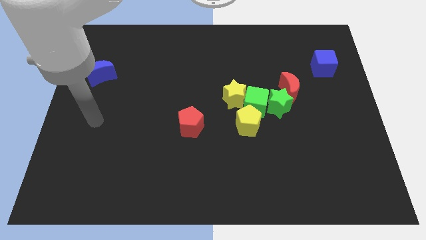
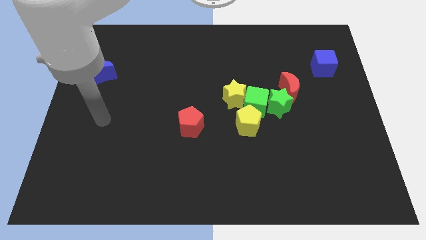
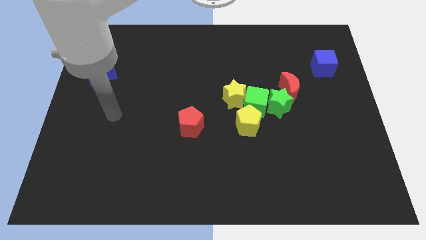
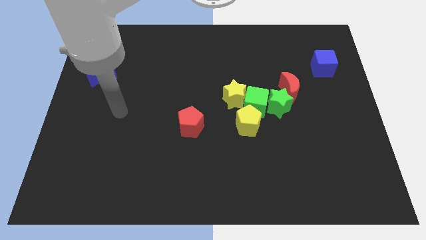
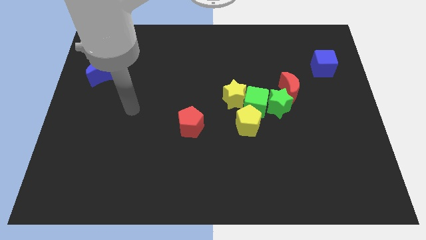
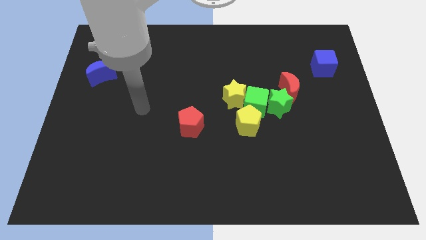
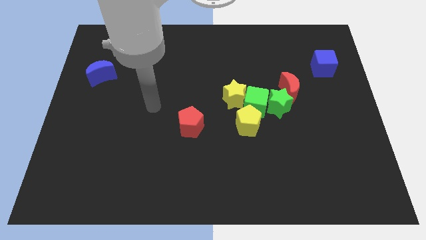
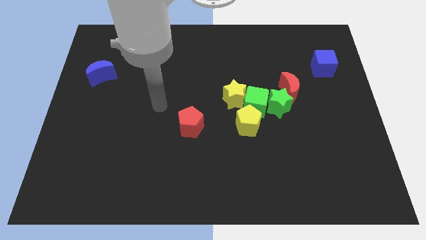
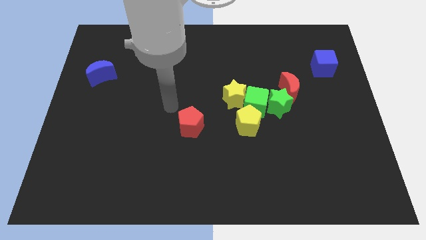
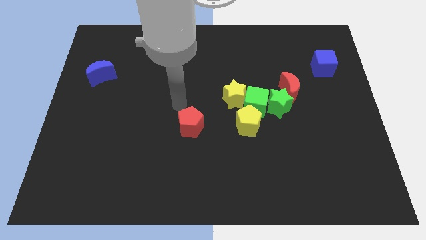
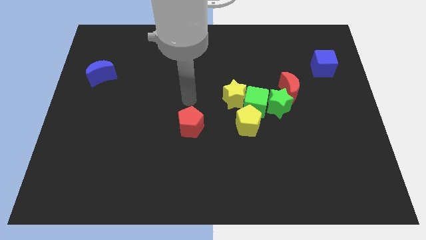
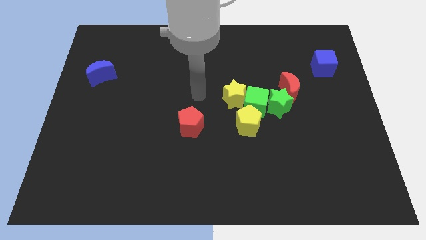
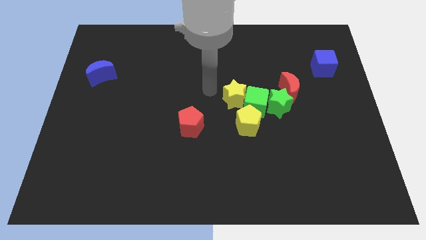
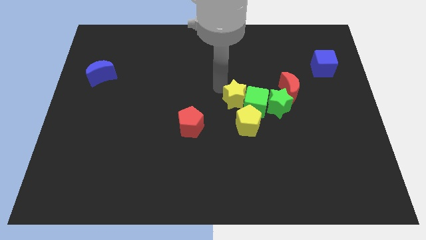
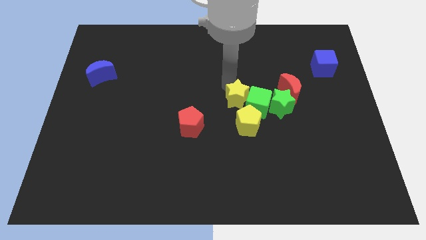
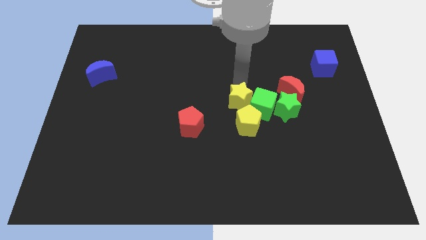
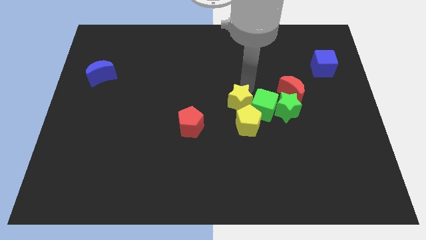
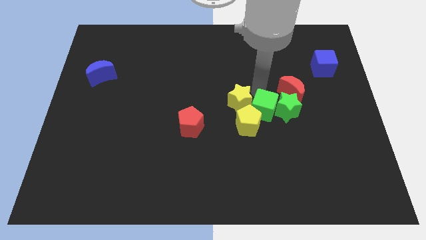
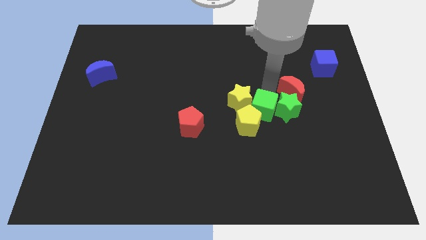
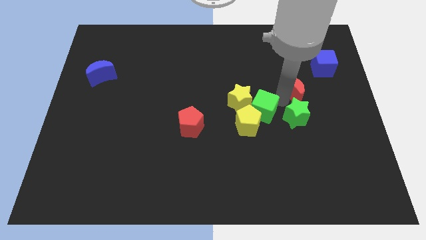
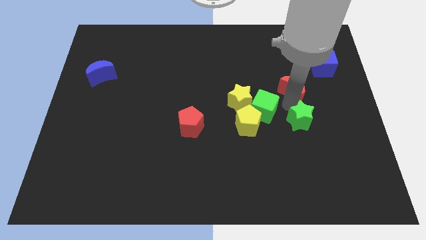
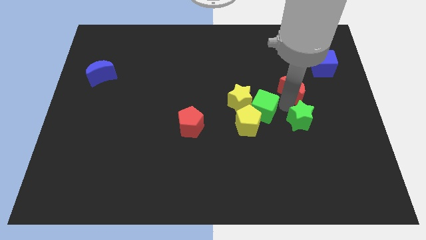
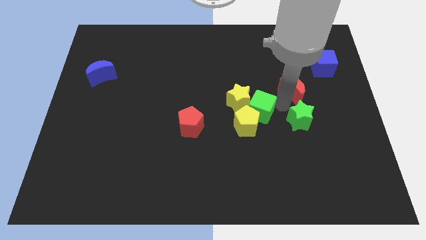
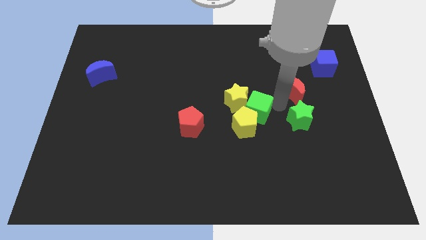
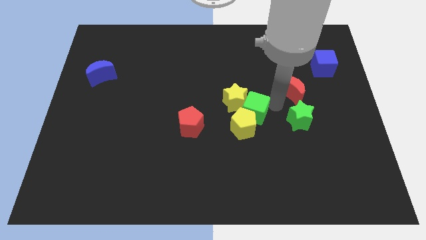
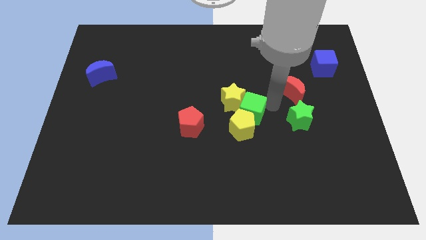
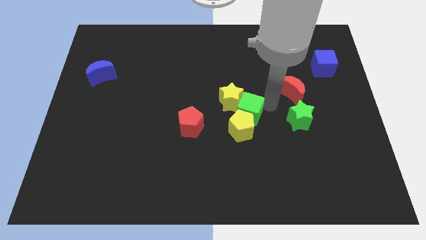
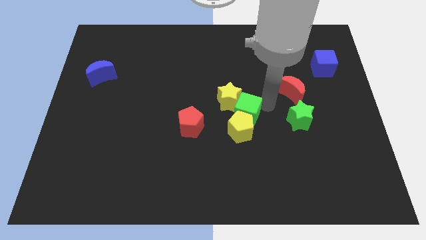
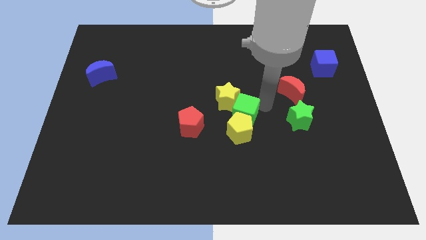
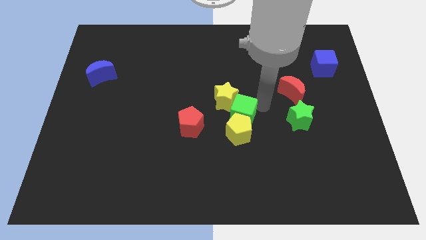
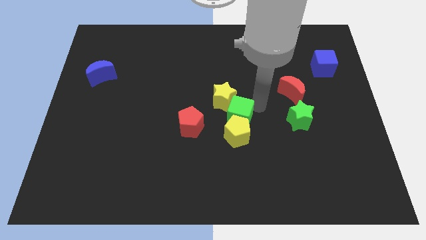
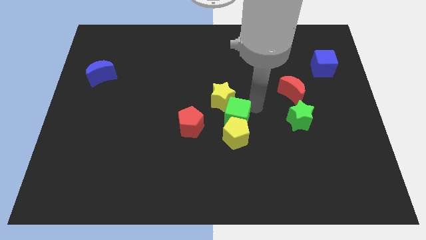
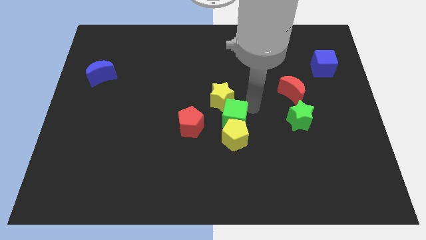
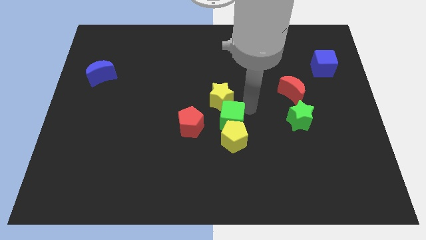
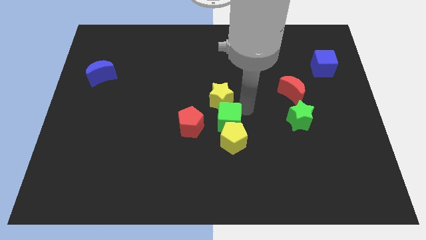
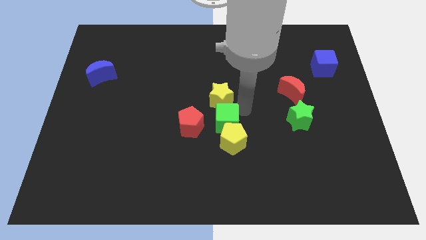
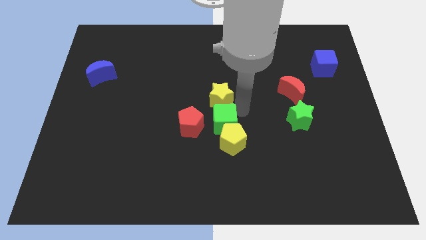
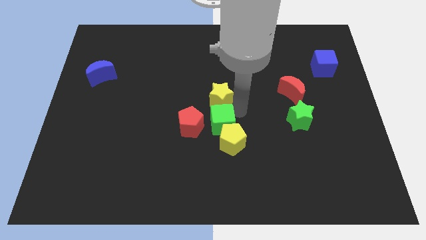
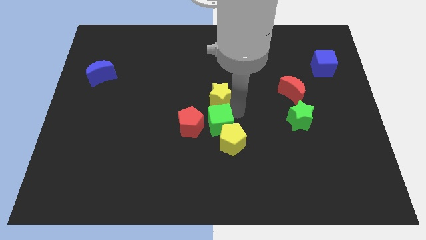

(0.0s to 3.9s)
move the green cube away from the group of blocks

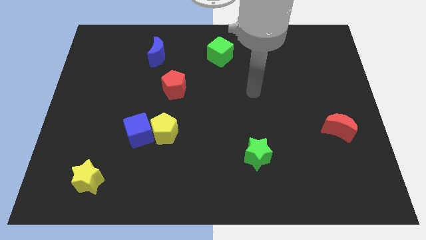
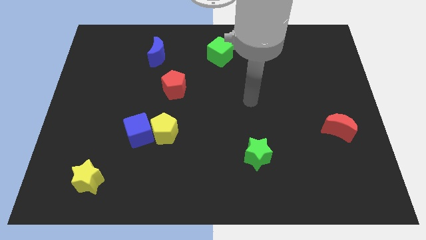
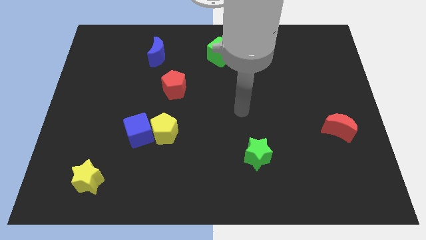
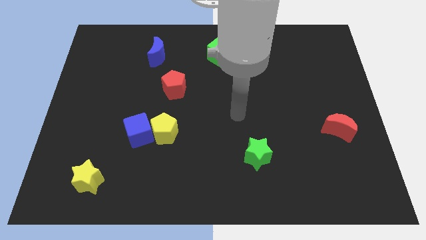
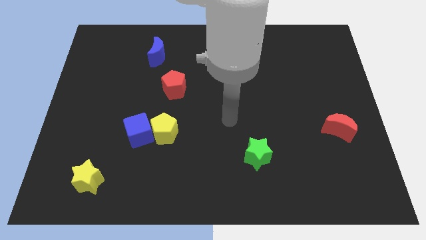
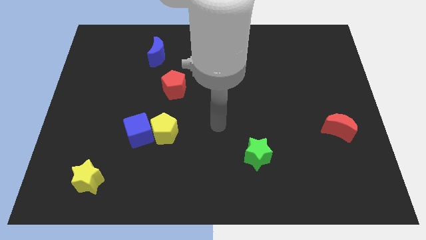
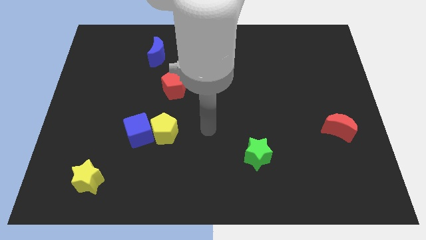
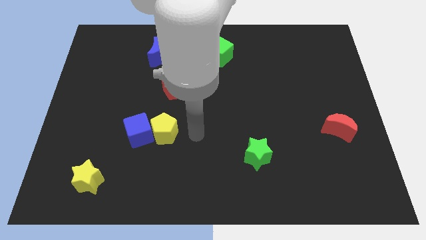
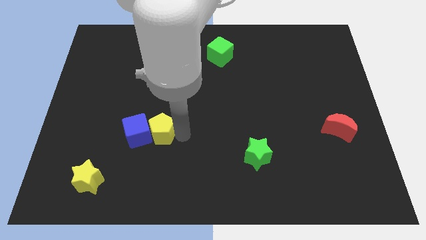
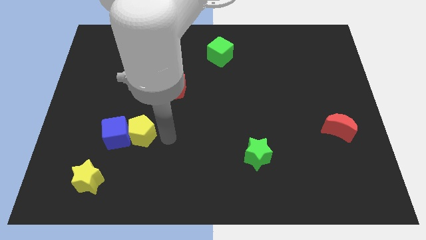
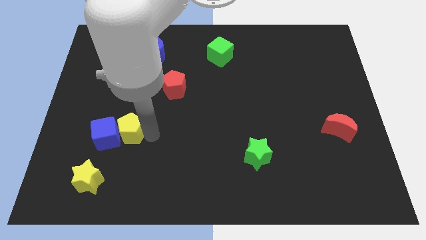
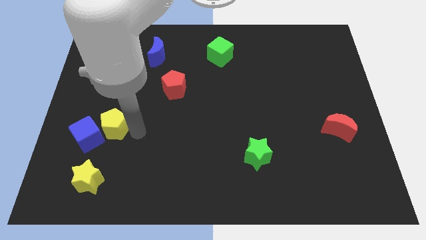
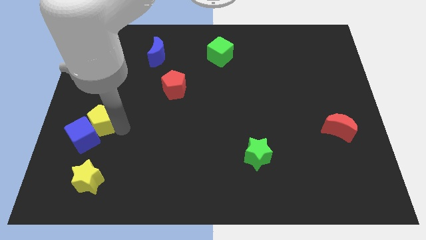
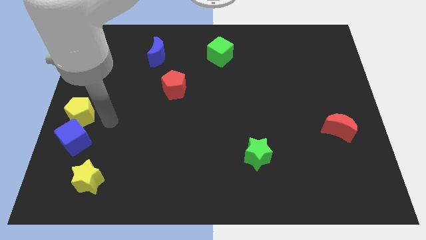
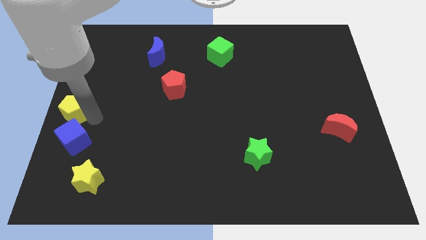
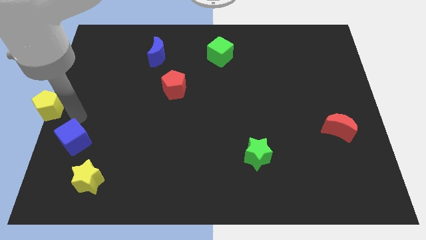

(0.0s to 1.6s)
move the blue cube away from the yellow pentagon

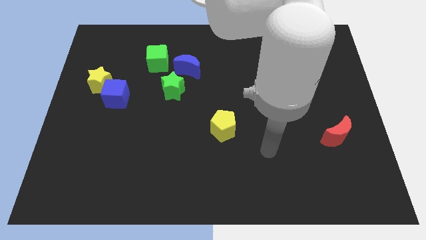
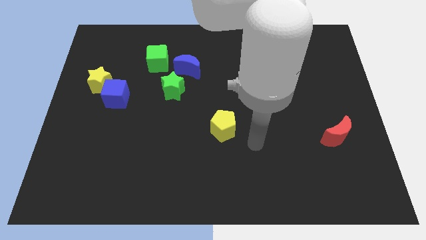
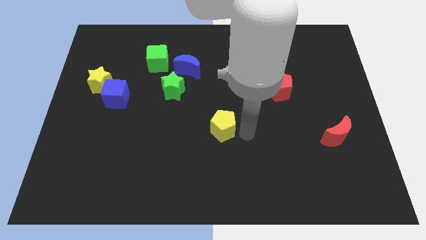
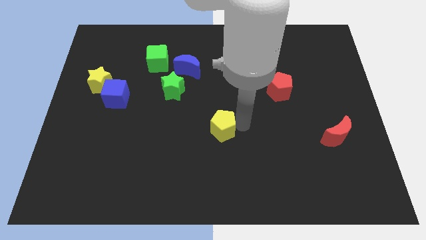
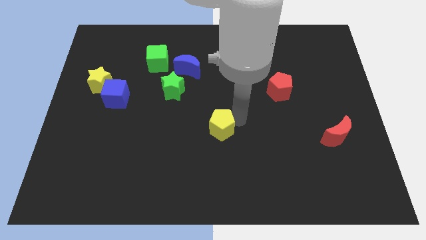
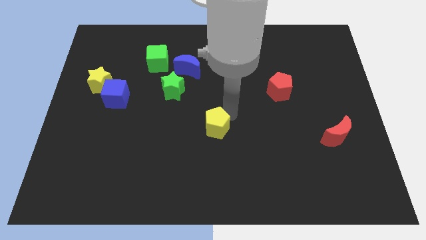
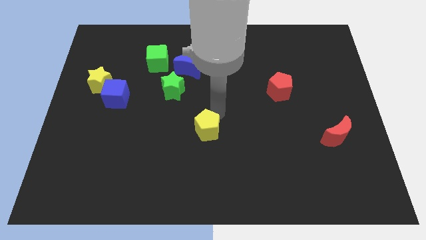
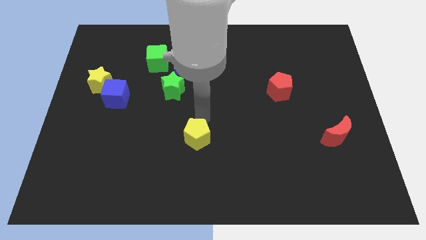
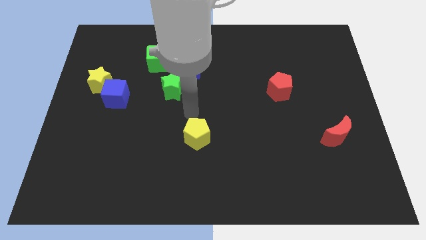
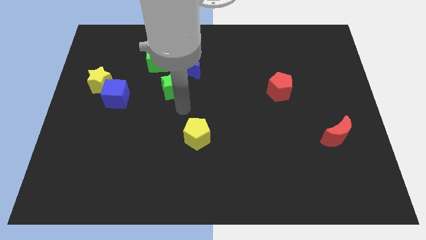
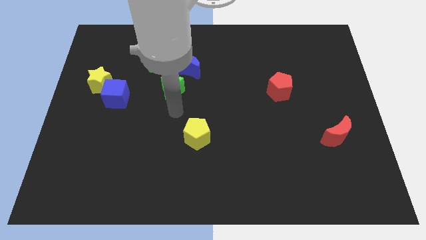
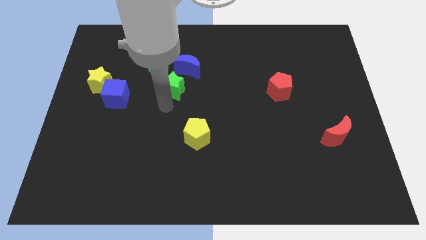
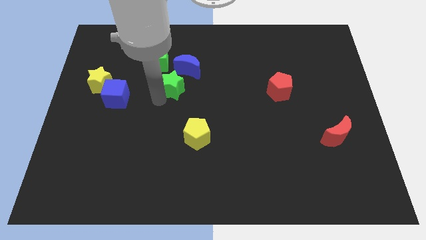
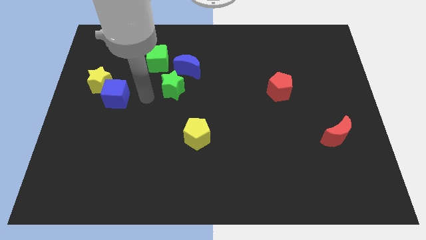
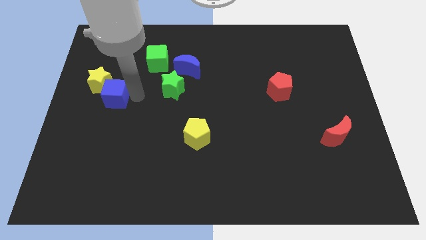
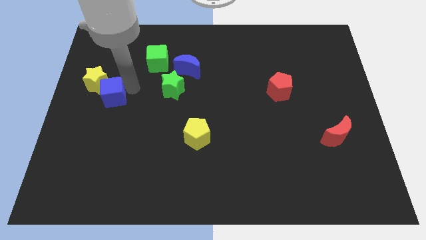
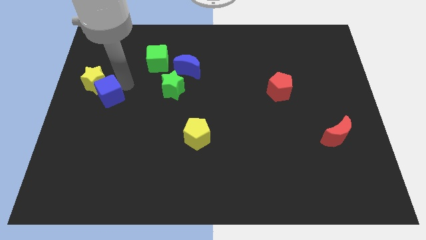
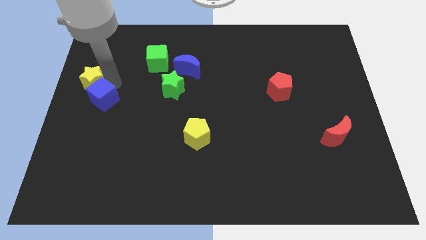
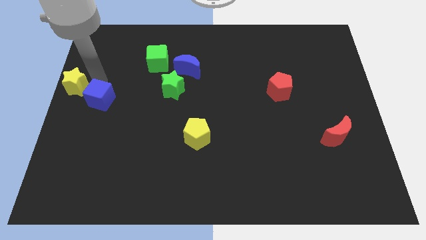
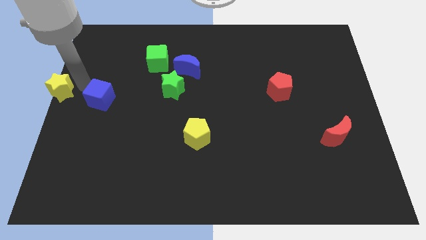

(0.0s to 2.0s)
move the blue cube away from the yellow star

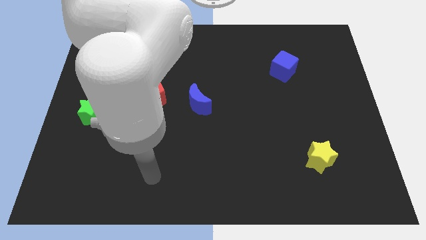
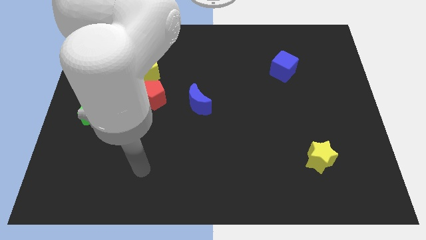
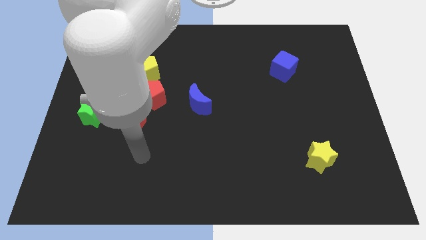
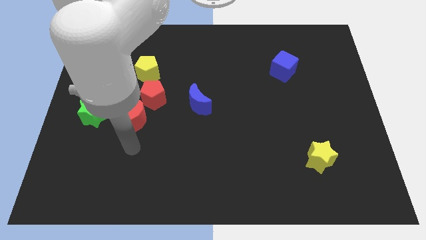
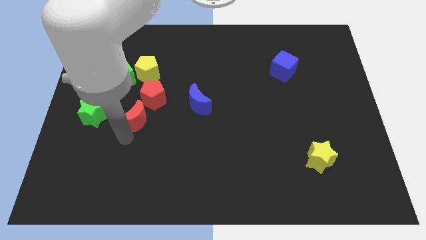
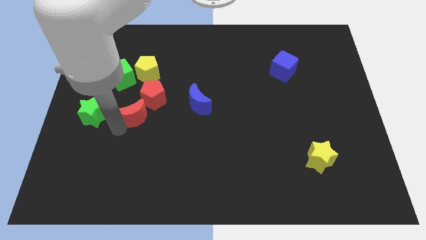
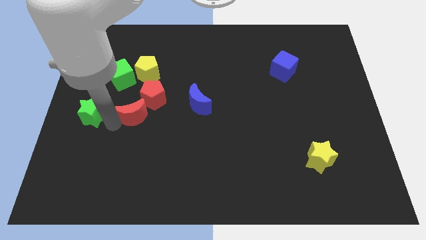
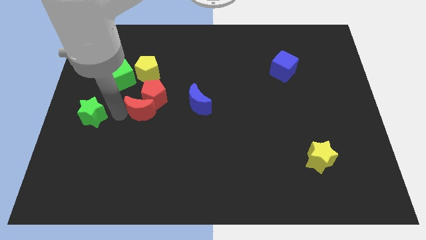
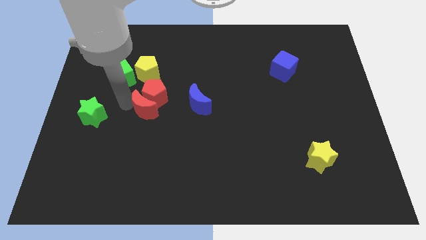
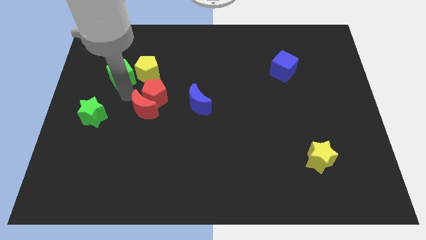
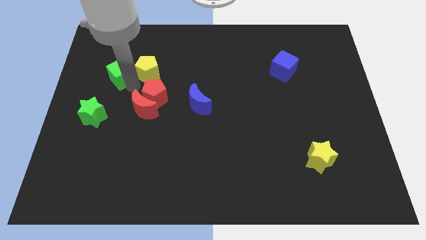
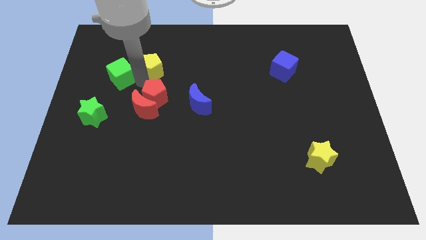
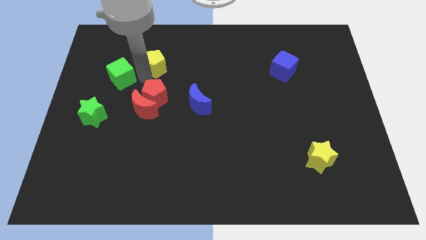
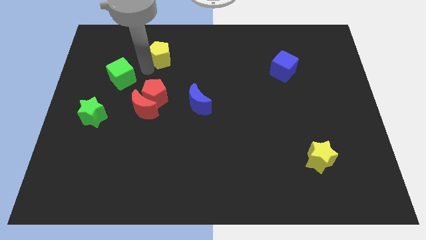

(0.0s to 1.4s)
pull the green cube apart from the yellow pentagon

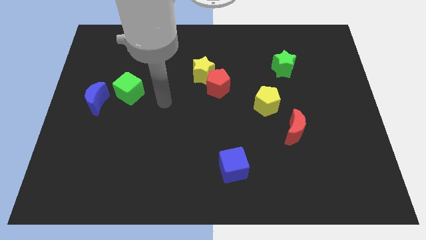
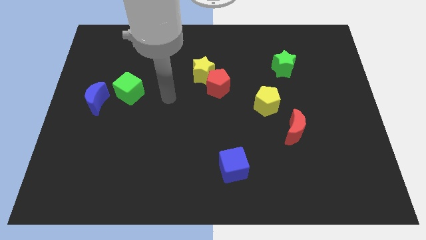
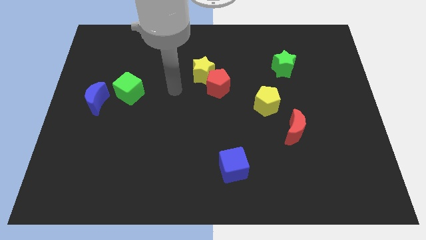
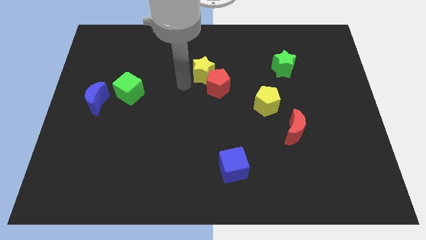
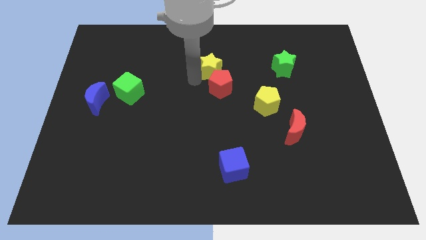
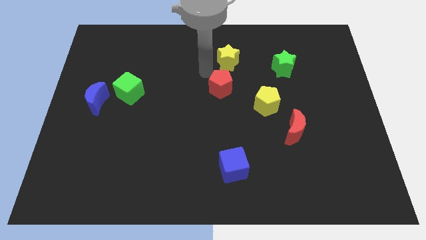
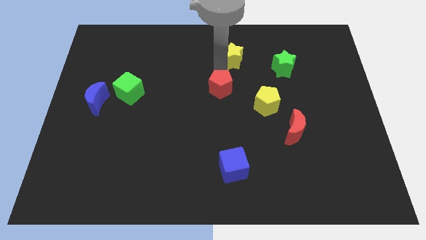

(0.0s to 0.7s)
separate the red pentagon from the yellow star
